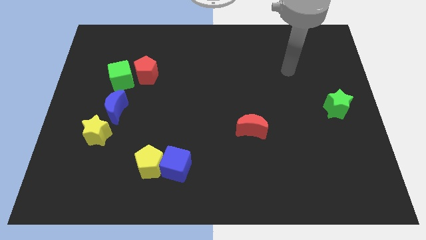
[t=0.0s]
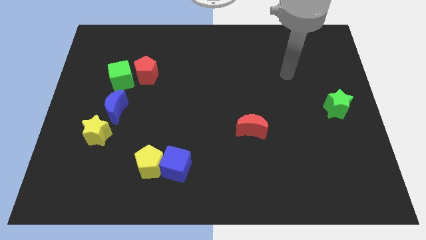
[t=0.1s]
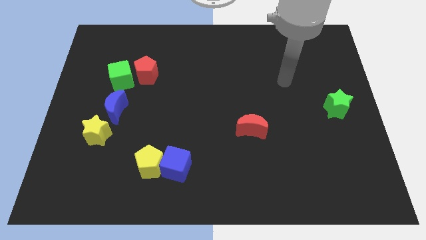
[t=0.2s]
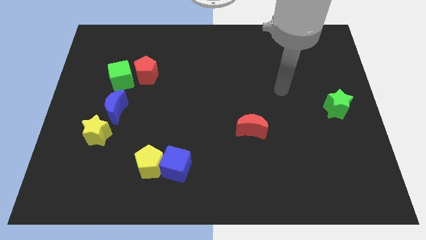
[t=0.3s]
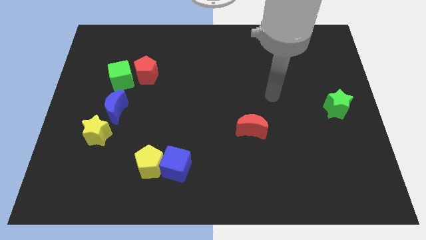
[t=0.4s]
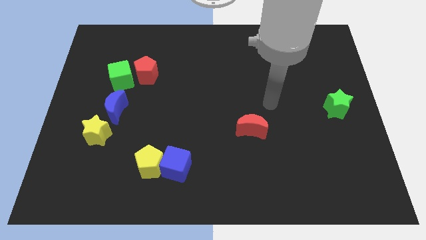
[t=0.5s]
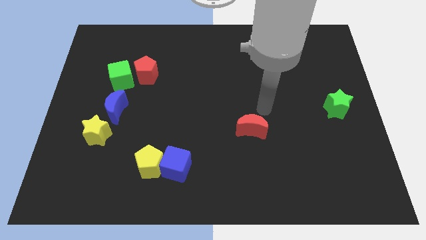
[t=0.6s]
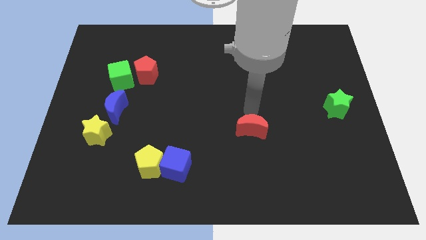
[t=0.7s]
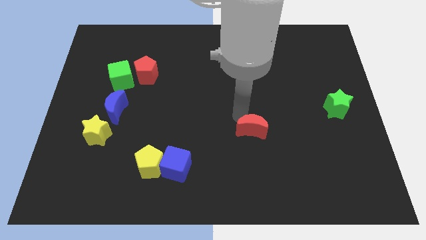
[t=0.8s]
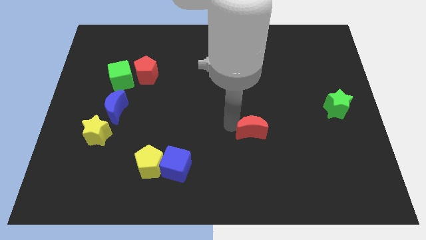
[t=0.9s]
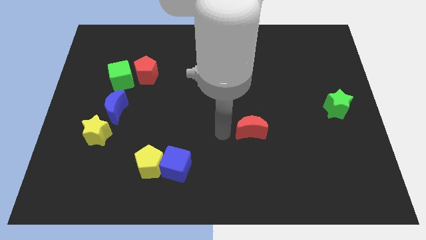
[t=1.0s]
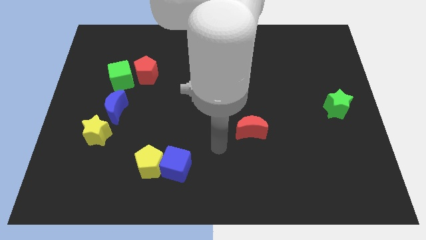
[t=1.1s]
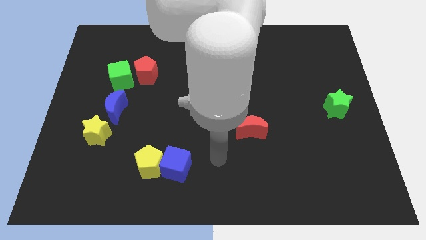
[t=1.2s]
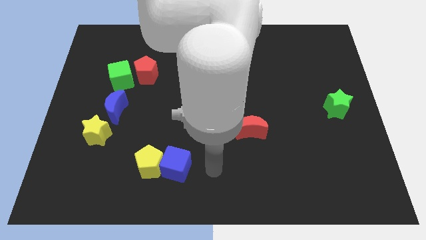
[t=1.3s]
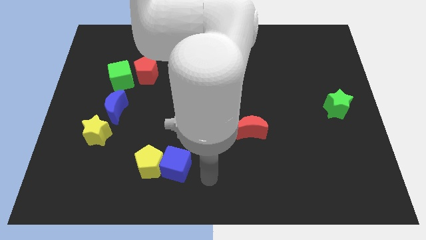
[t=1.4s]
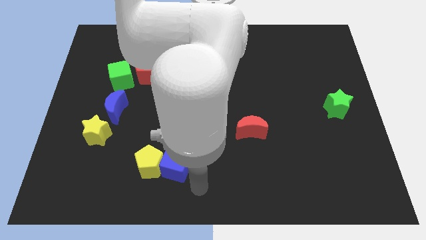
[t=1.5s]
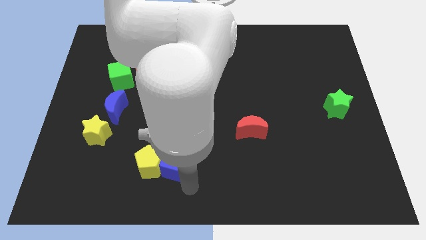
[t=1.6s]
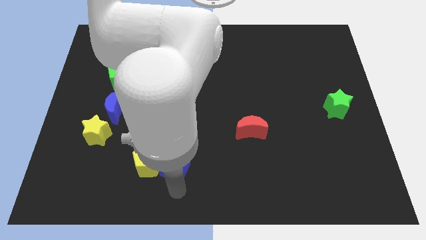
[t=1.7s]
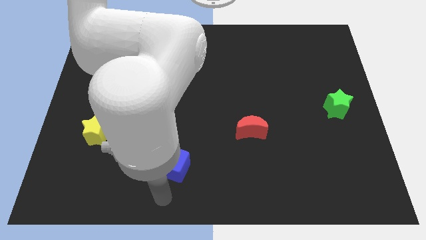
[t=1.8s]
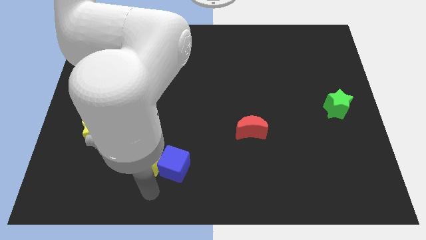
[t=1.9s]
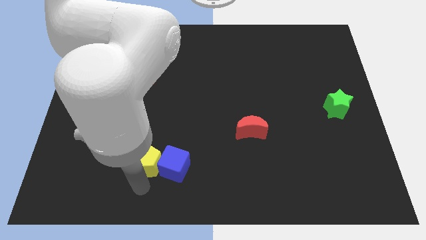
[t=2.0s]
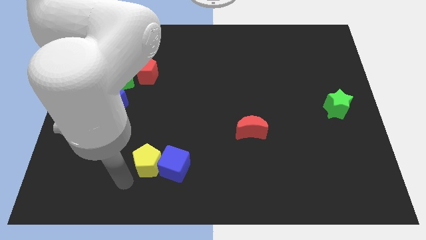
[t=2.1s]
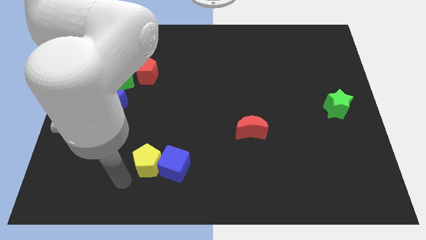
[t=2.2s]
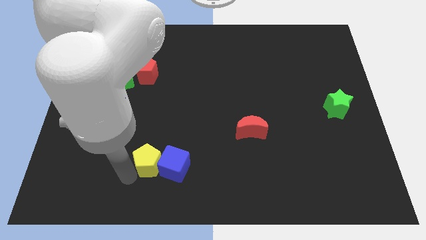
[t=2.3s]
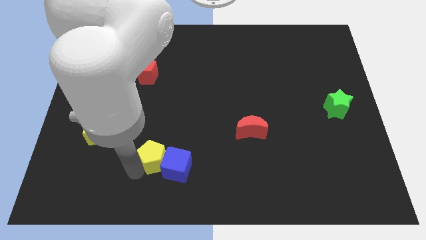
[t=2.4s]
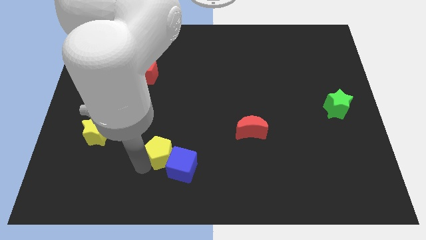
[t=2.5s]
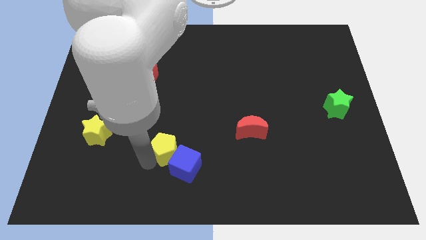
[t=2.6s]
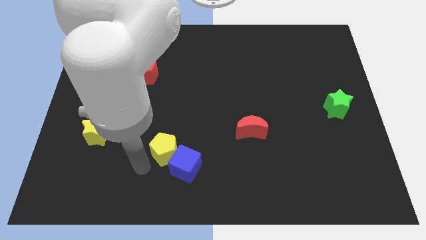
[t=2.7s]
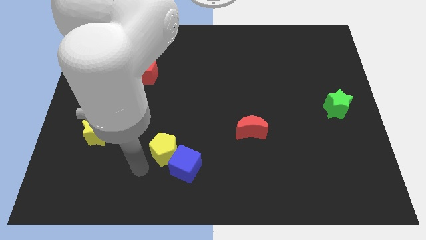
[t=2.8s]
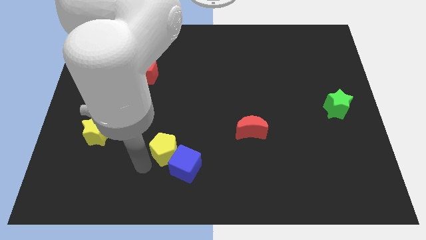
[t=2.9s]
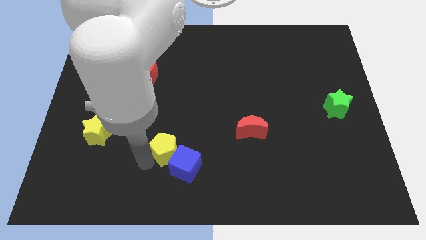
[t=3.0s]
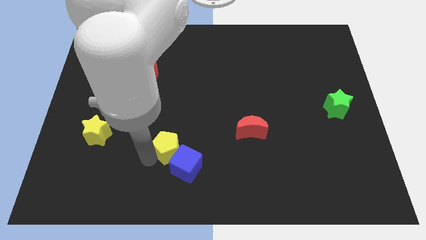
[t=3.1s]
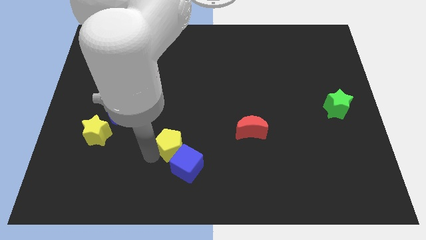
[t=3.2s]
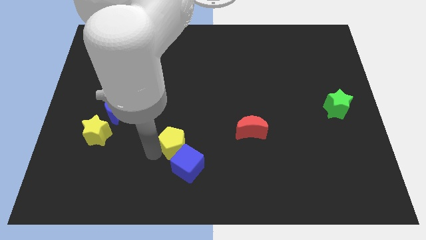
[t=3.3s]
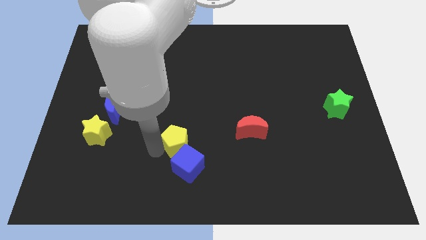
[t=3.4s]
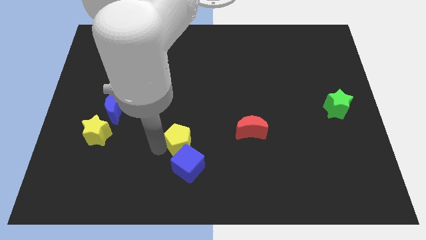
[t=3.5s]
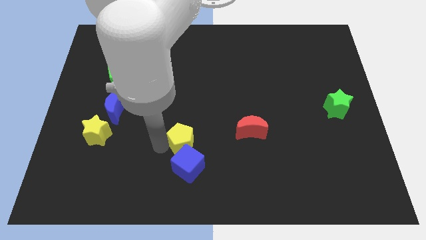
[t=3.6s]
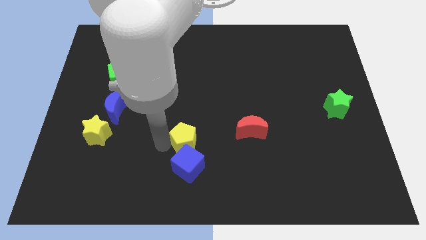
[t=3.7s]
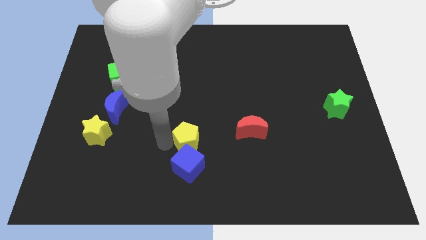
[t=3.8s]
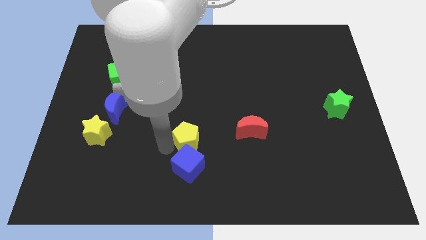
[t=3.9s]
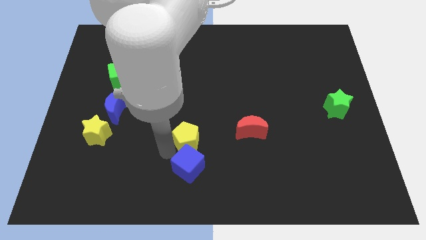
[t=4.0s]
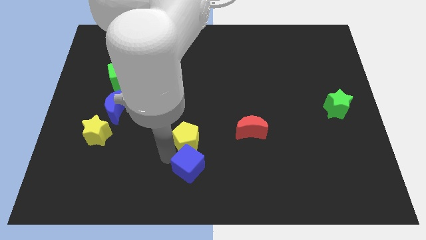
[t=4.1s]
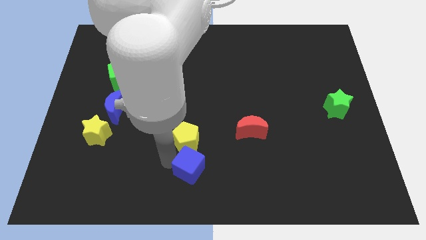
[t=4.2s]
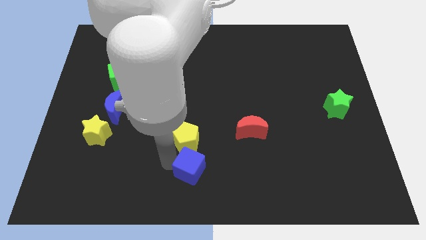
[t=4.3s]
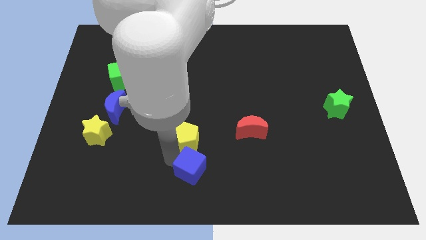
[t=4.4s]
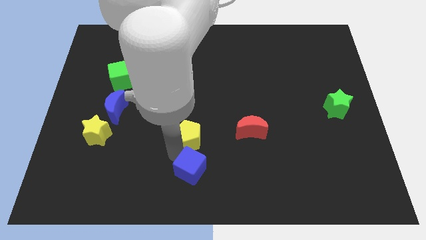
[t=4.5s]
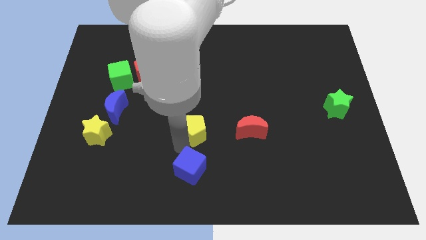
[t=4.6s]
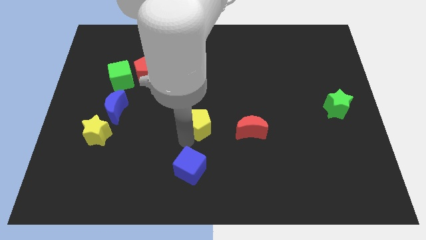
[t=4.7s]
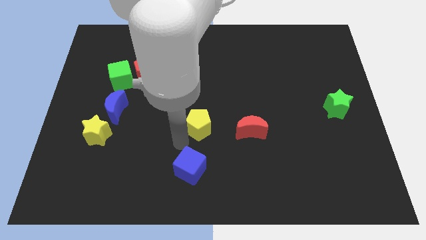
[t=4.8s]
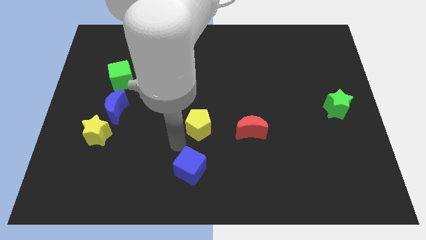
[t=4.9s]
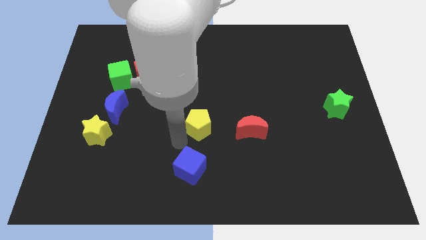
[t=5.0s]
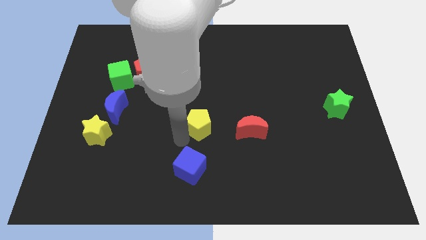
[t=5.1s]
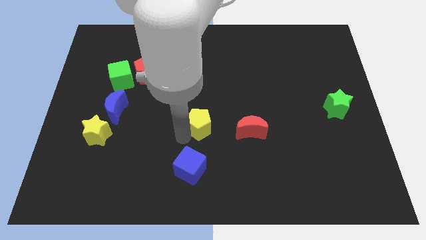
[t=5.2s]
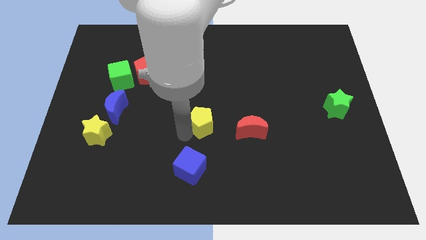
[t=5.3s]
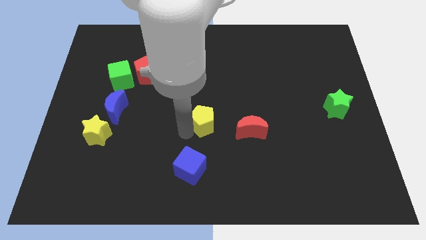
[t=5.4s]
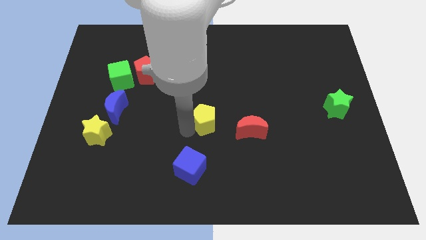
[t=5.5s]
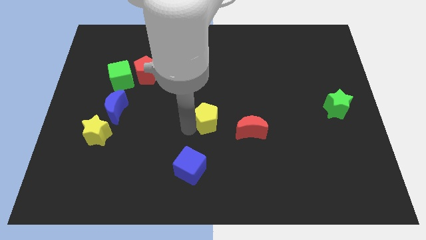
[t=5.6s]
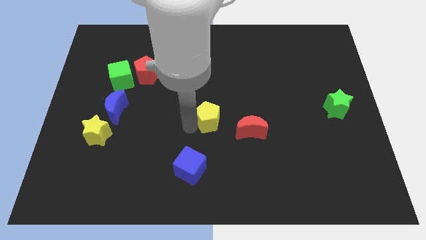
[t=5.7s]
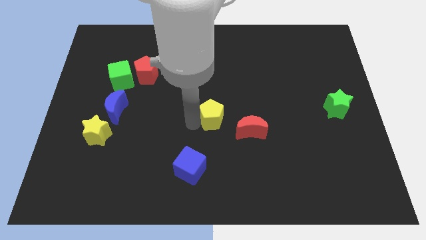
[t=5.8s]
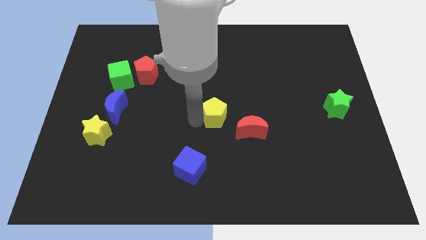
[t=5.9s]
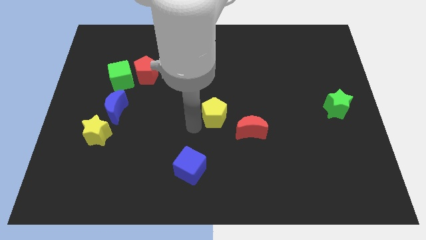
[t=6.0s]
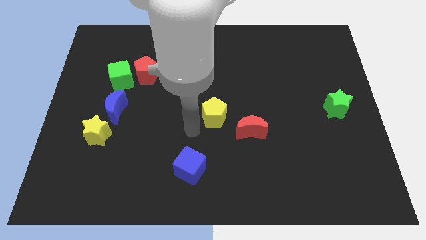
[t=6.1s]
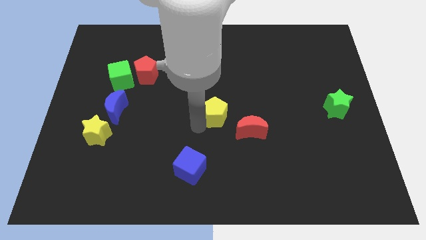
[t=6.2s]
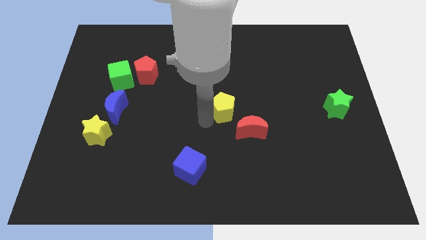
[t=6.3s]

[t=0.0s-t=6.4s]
slide the yellow pentagon diagonally up and to the right

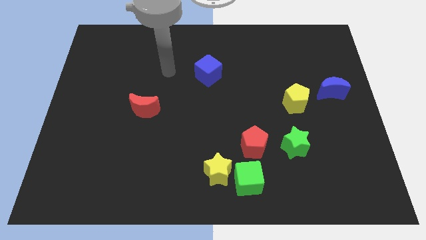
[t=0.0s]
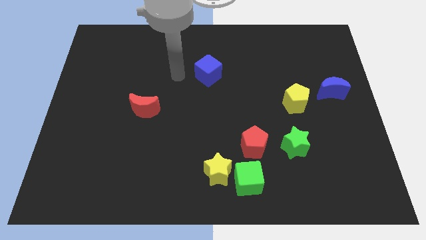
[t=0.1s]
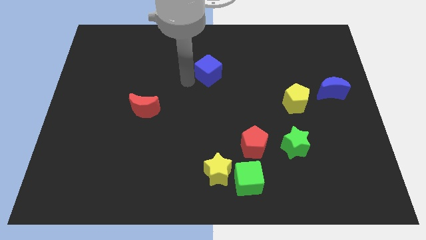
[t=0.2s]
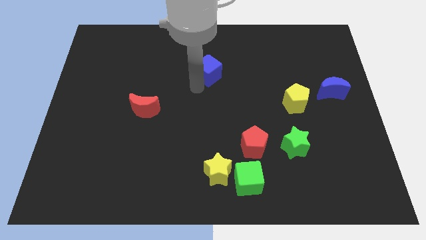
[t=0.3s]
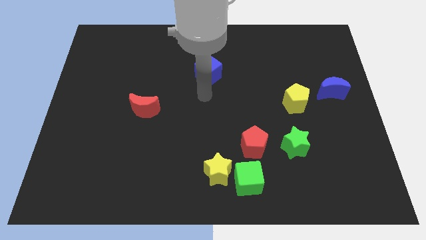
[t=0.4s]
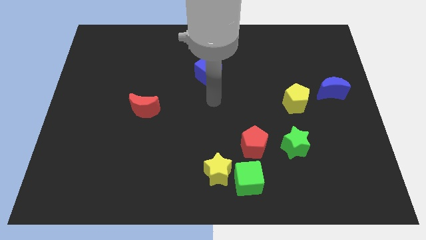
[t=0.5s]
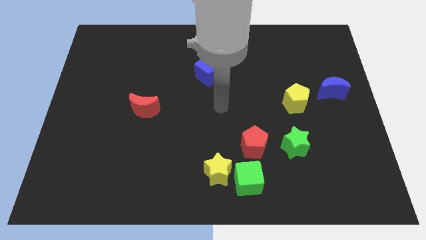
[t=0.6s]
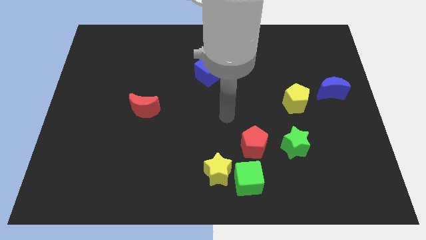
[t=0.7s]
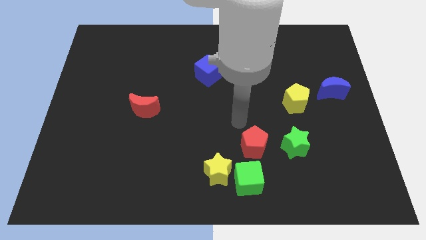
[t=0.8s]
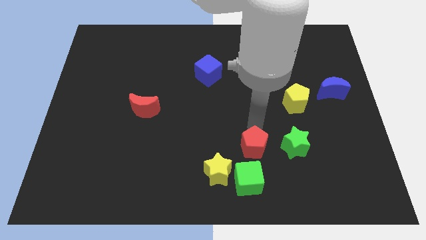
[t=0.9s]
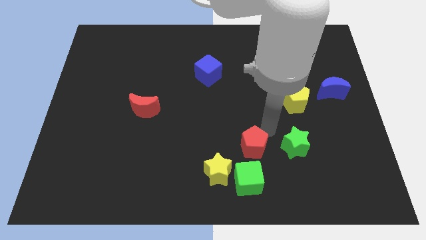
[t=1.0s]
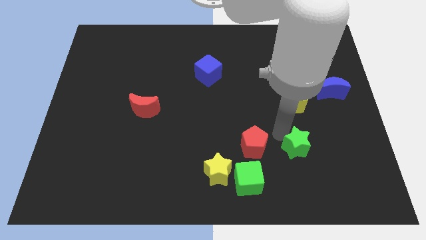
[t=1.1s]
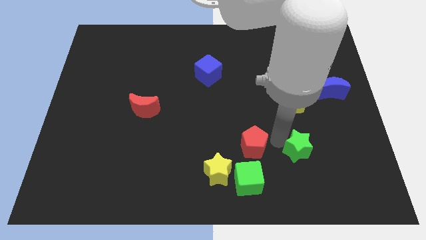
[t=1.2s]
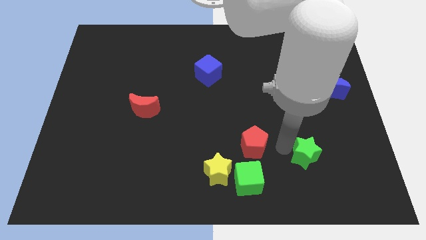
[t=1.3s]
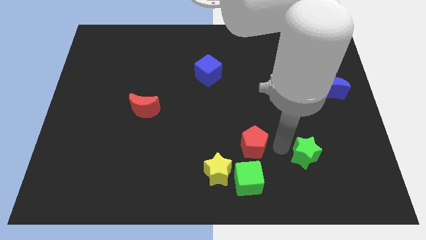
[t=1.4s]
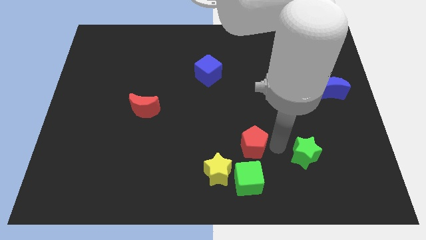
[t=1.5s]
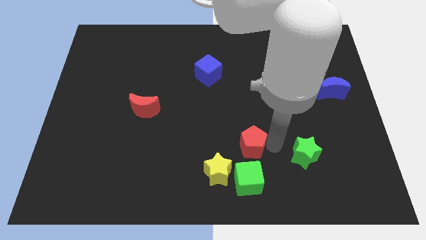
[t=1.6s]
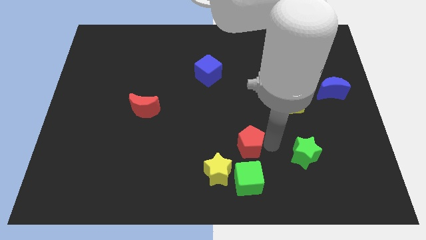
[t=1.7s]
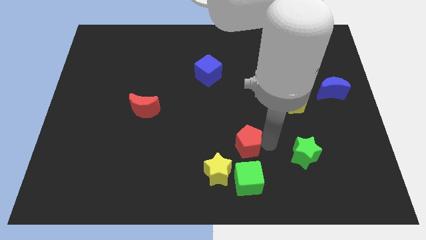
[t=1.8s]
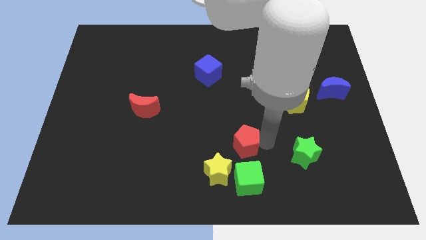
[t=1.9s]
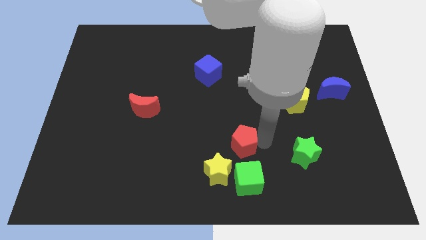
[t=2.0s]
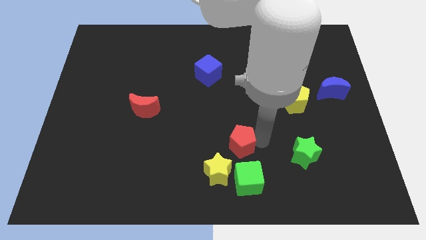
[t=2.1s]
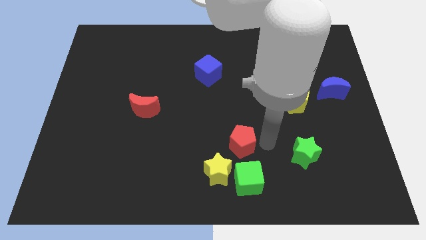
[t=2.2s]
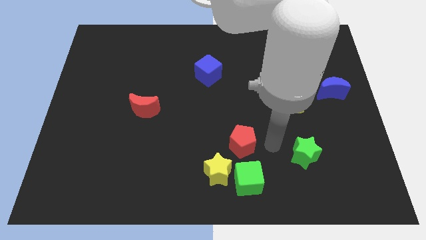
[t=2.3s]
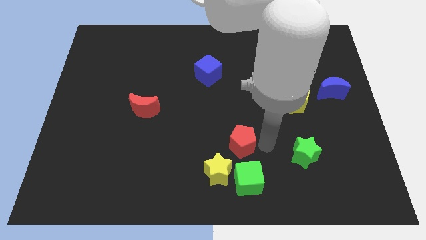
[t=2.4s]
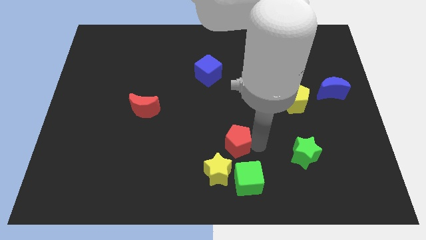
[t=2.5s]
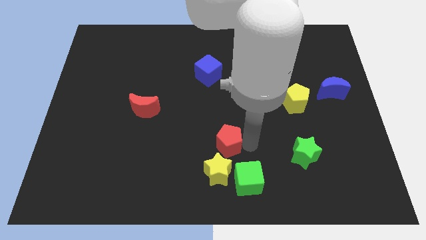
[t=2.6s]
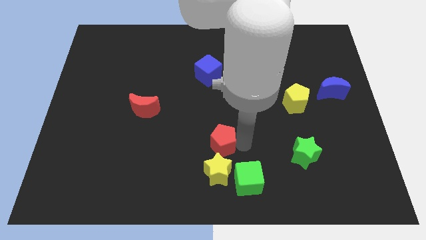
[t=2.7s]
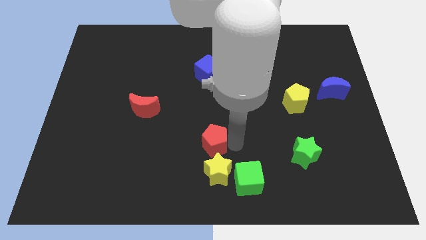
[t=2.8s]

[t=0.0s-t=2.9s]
slide the red pentagon to the left slightly
